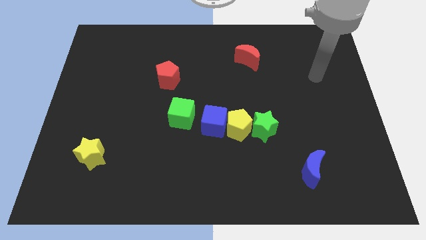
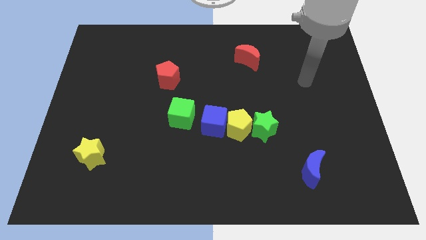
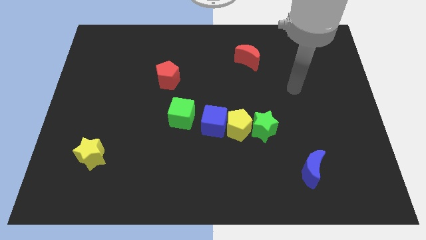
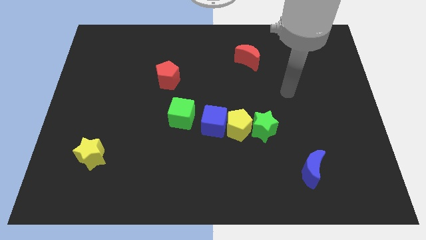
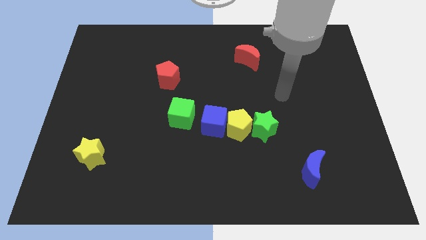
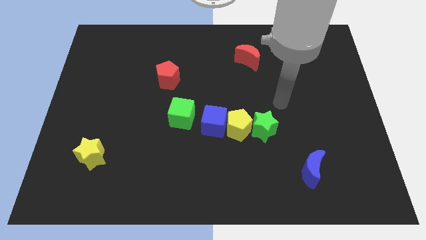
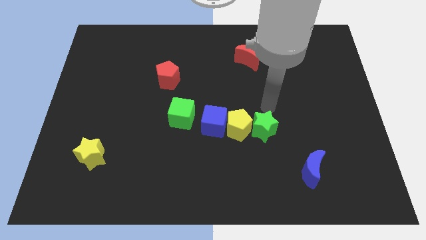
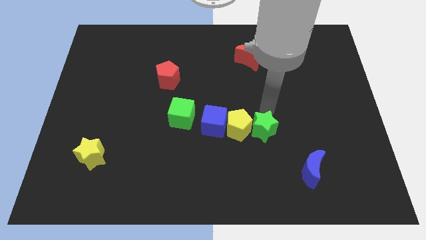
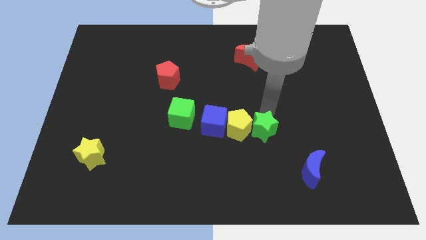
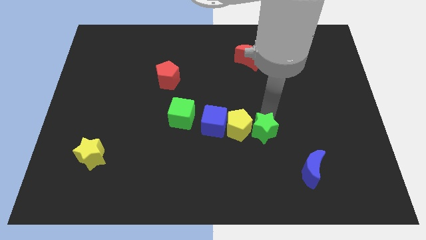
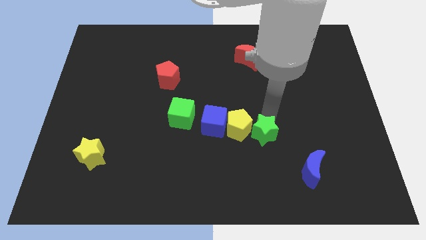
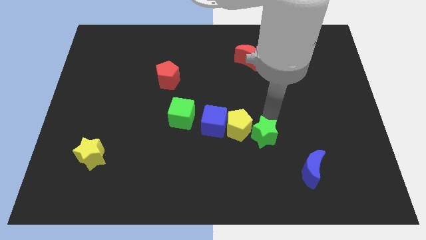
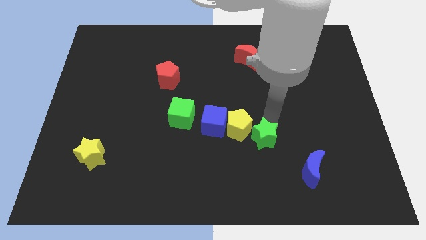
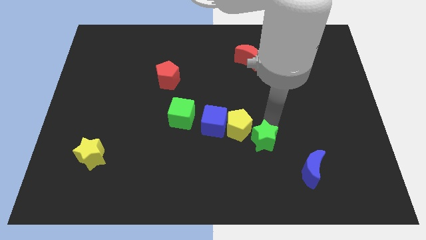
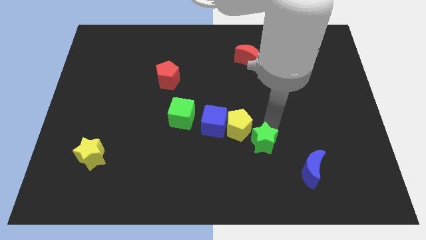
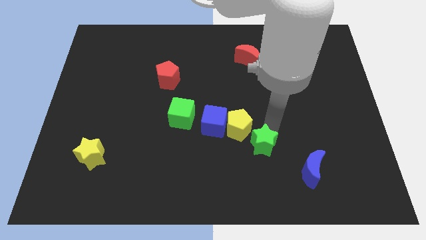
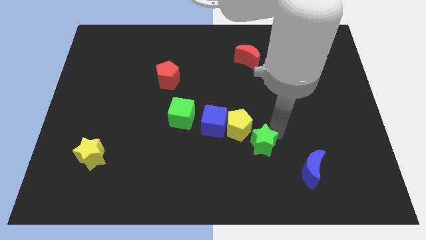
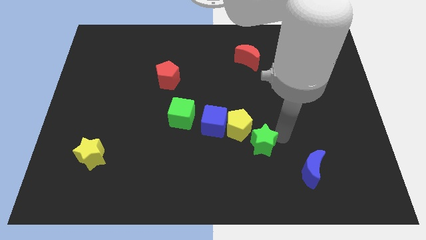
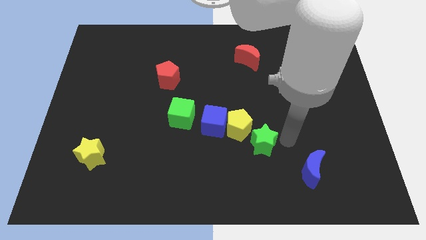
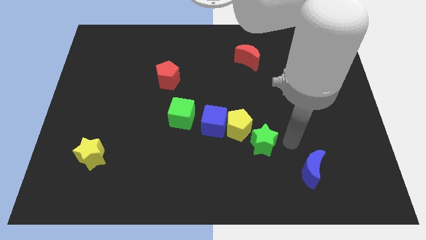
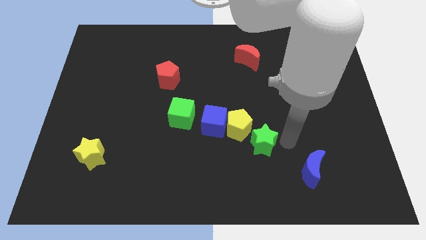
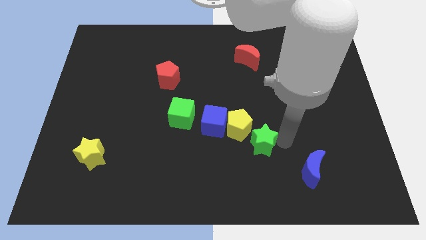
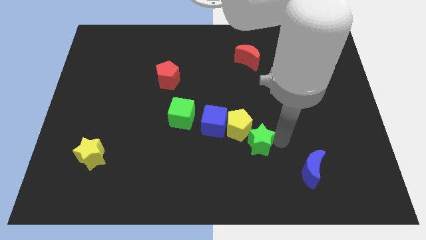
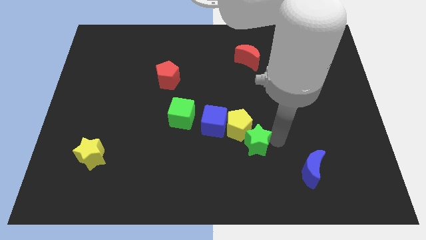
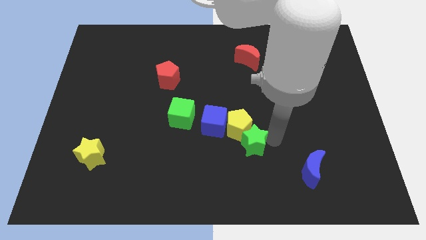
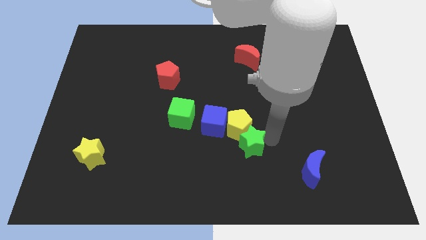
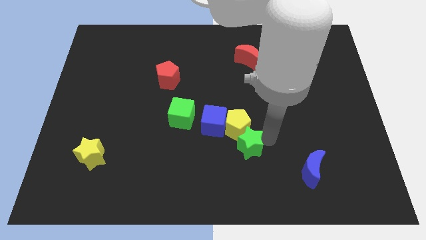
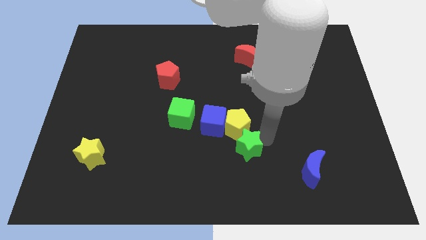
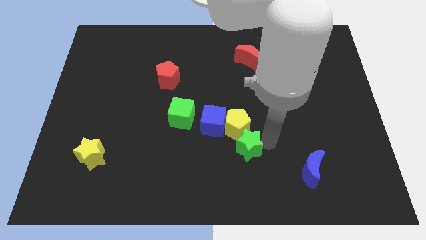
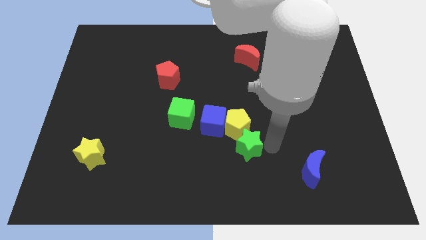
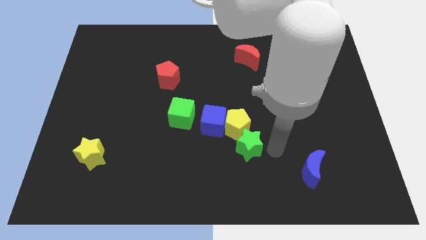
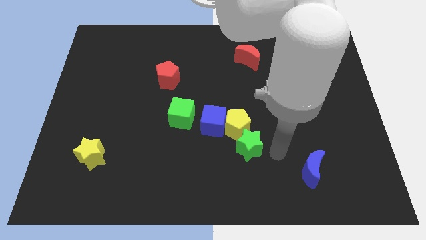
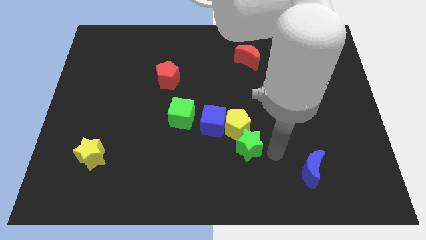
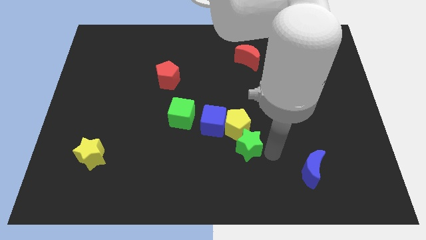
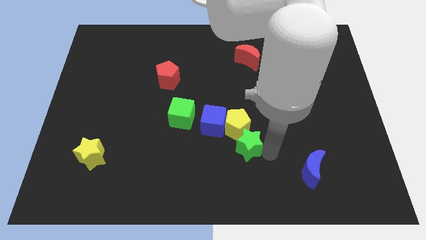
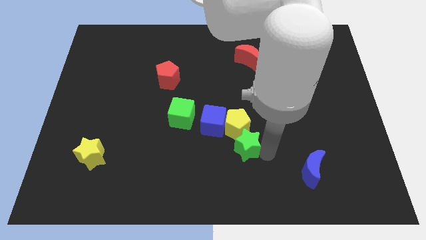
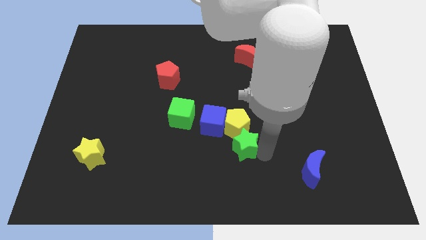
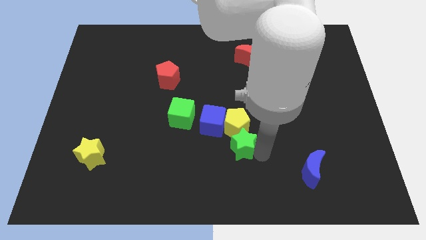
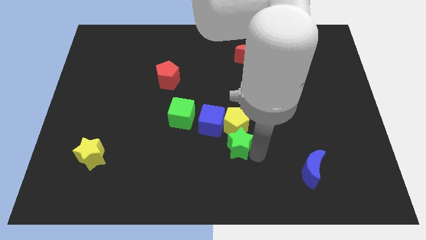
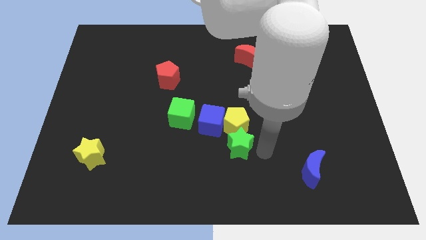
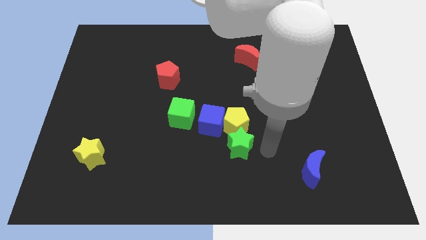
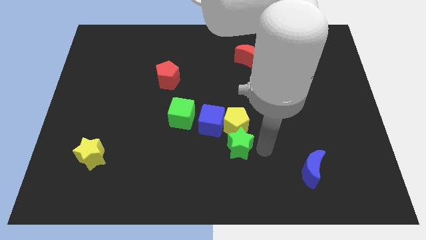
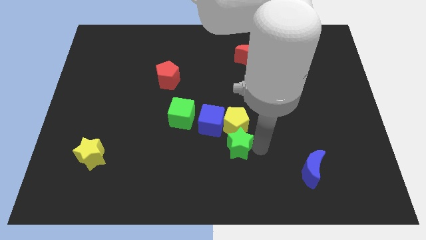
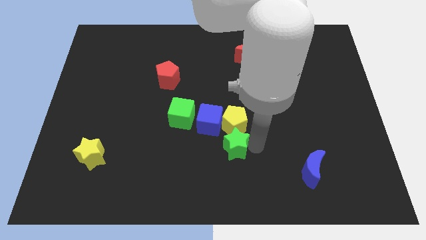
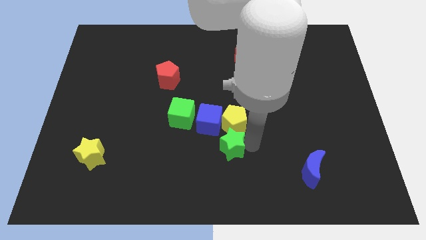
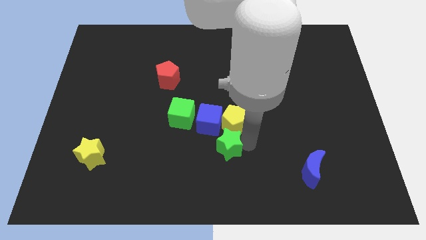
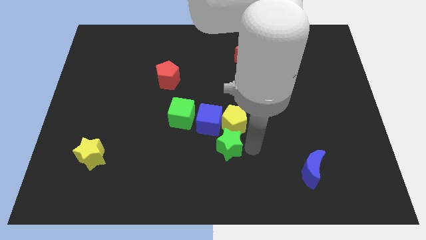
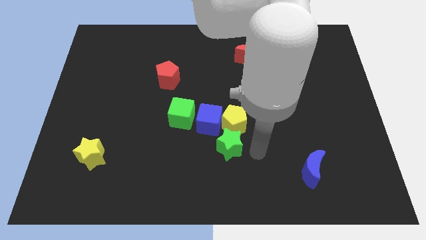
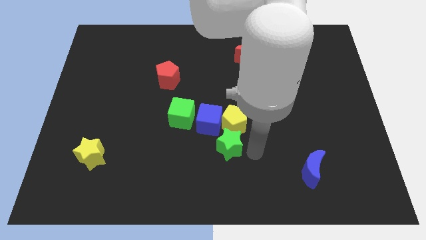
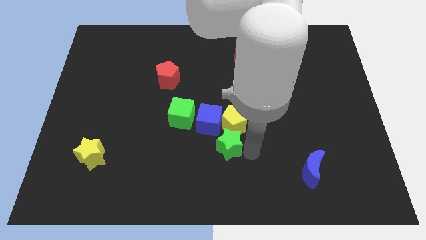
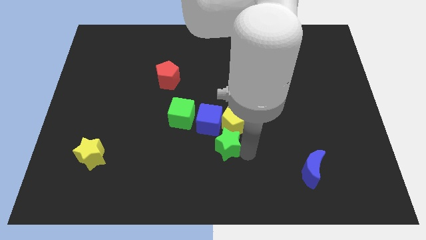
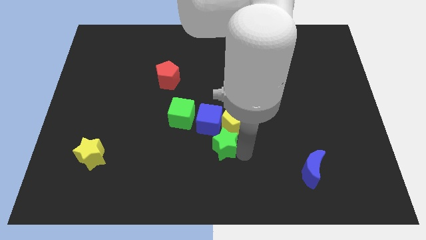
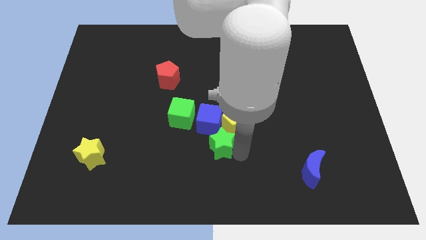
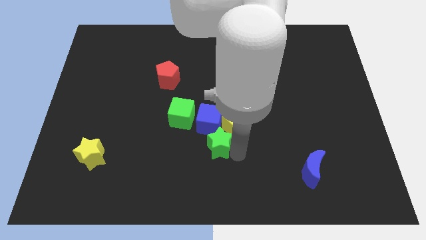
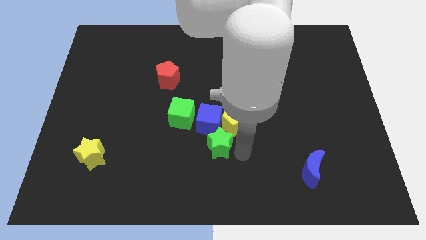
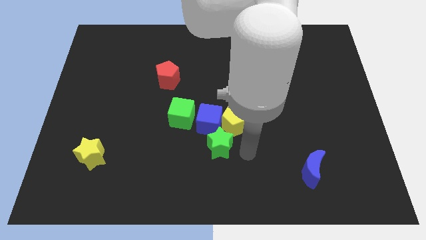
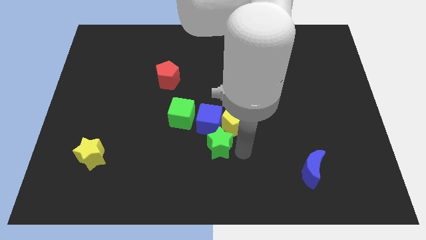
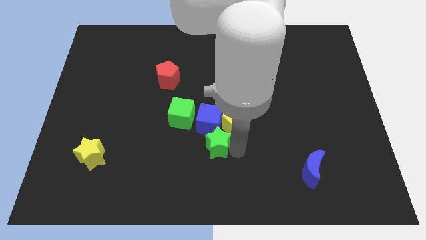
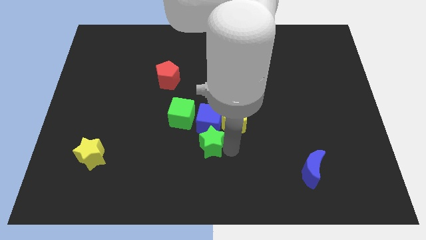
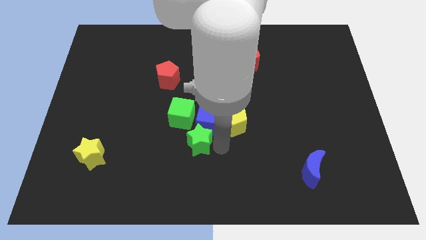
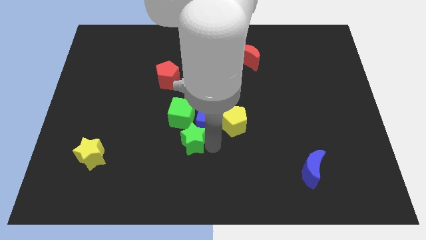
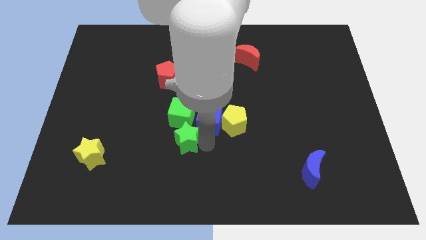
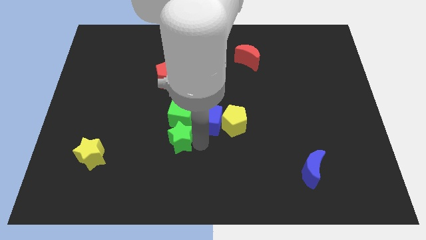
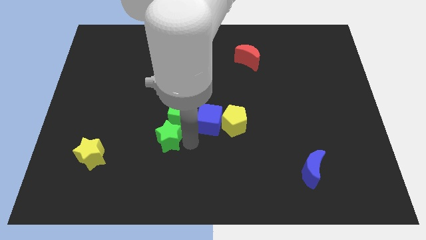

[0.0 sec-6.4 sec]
move the green star to the left

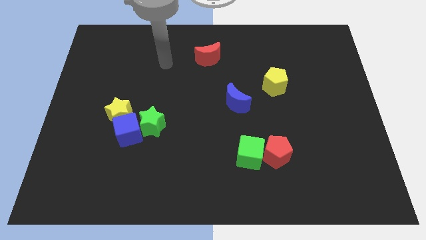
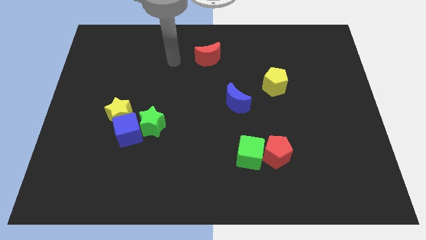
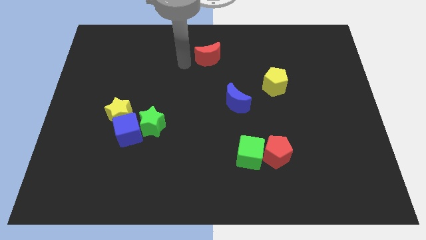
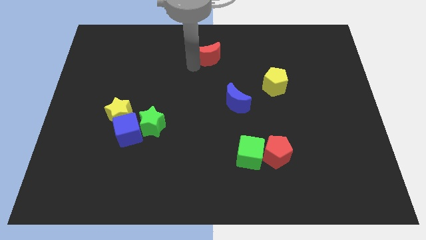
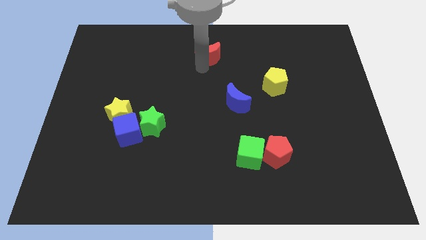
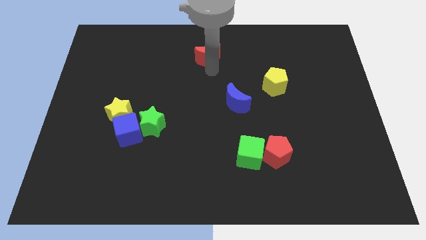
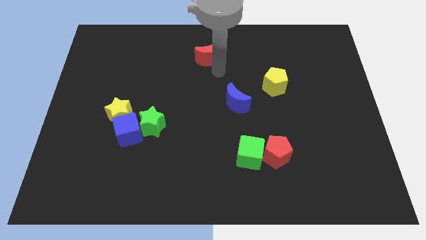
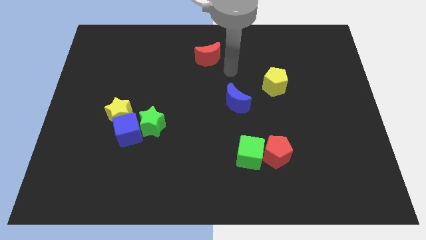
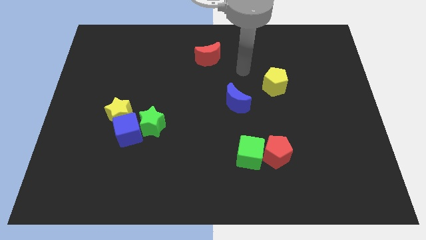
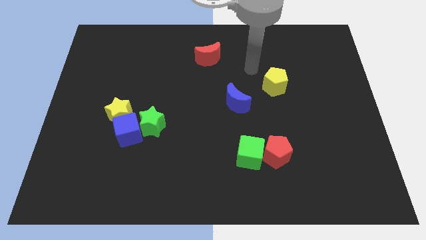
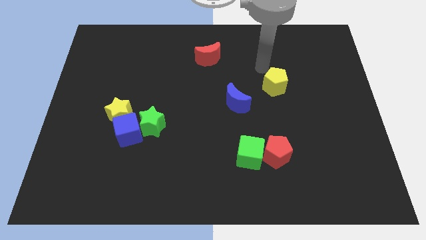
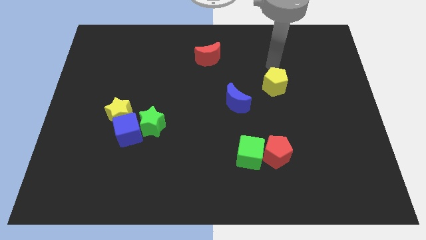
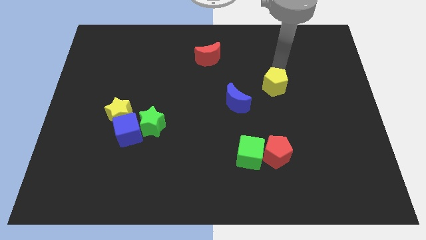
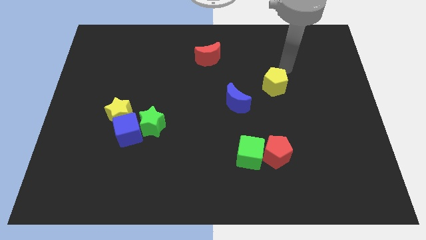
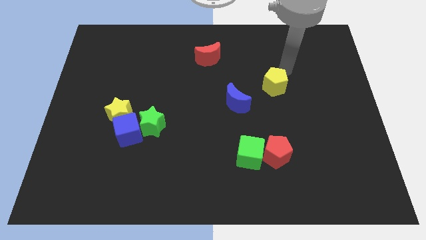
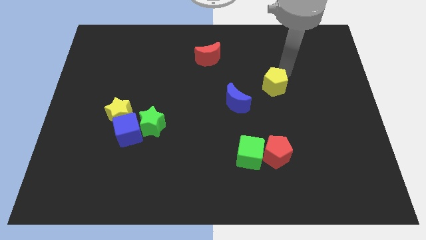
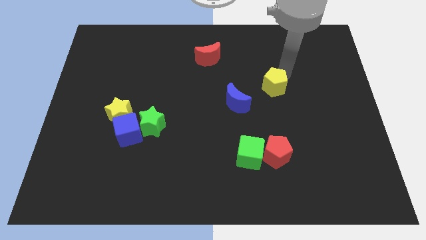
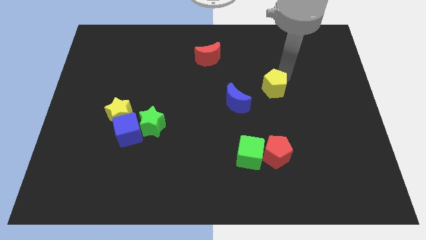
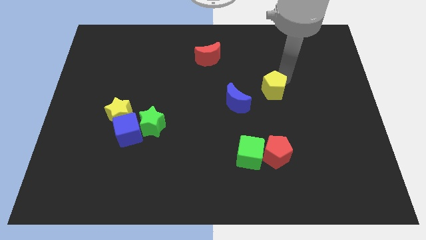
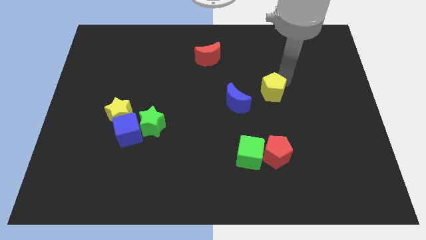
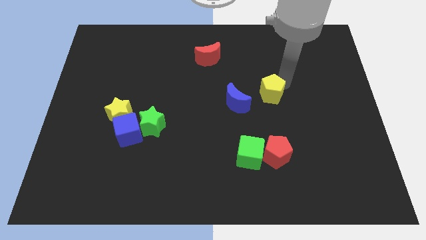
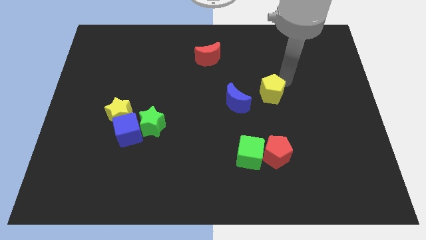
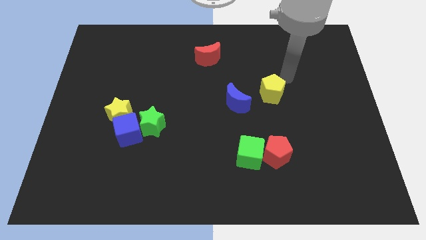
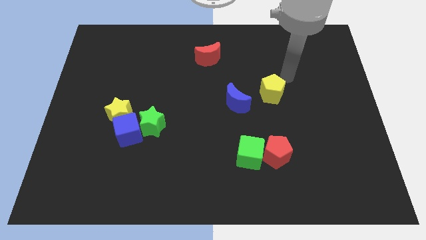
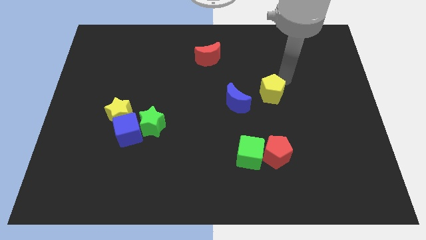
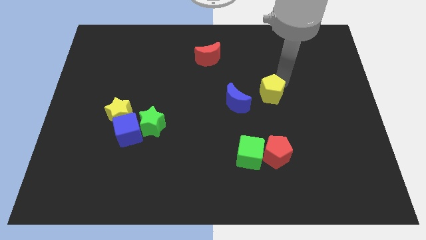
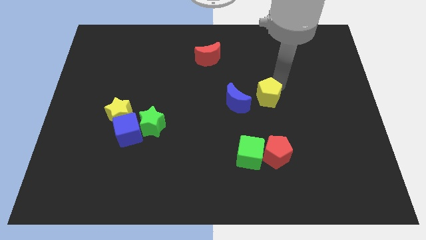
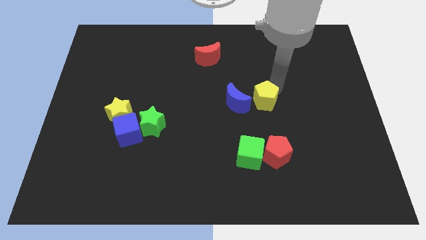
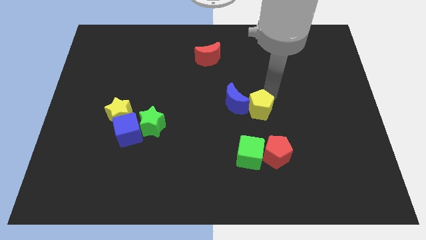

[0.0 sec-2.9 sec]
push the yellow pentagon somewhat diagonally down and left
